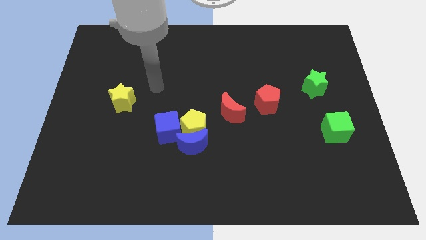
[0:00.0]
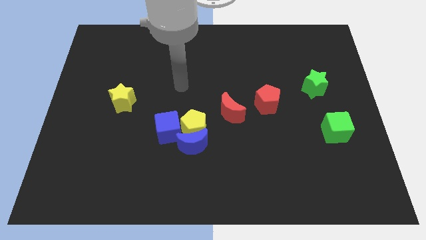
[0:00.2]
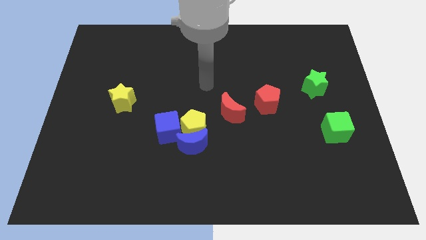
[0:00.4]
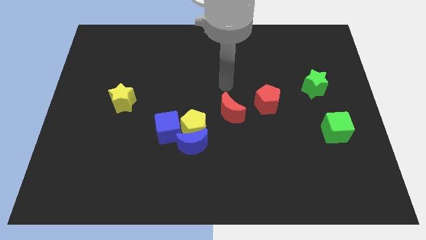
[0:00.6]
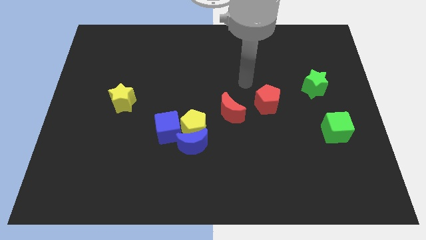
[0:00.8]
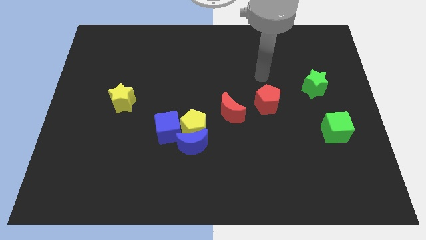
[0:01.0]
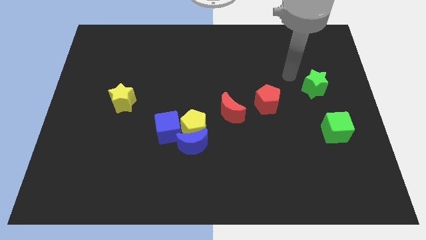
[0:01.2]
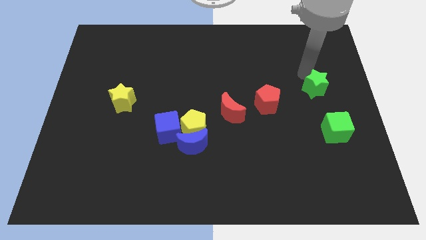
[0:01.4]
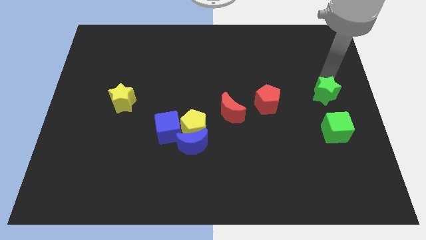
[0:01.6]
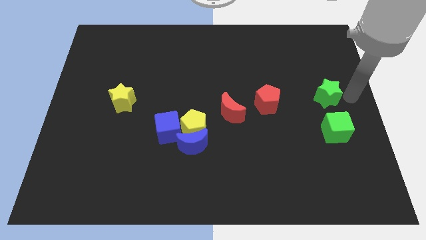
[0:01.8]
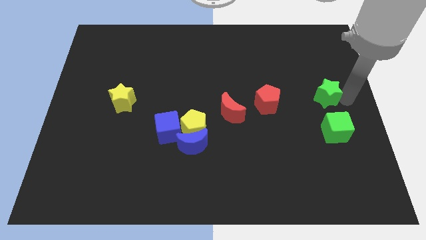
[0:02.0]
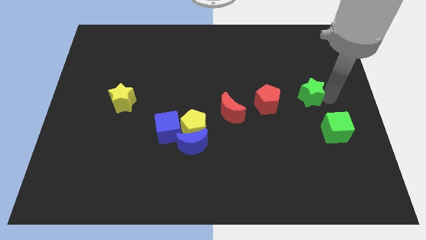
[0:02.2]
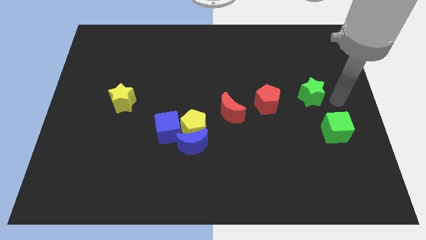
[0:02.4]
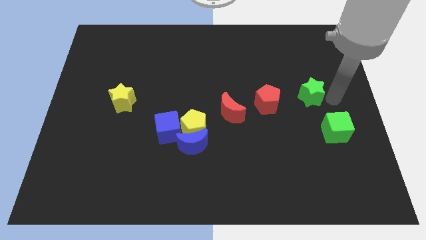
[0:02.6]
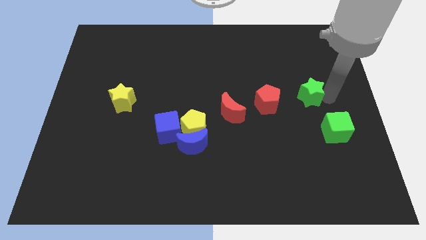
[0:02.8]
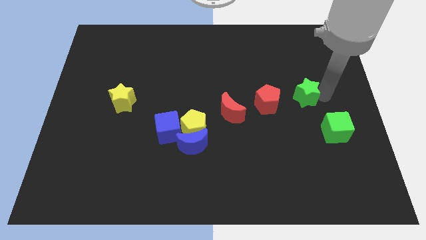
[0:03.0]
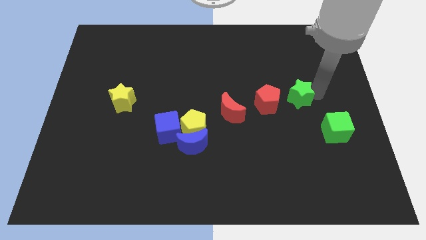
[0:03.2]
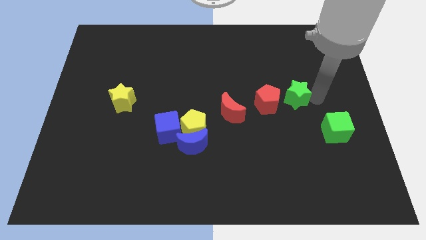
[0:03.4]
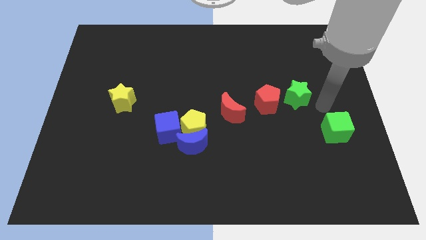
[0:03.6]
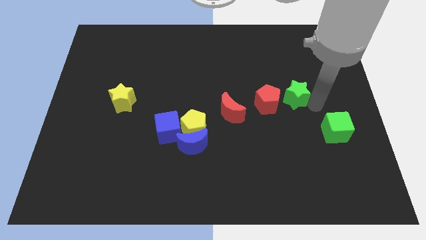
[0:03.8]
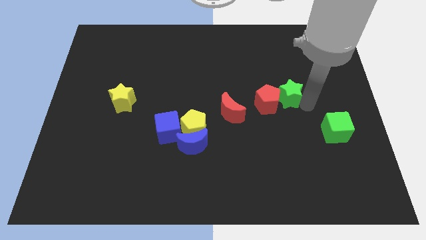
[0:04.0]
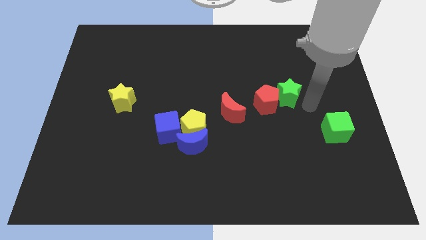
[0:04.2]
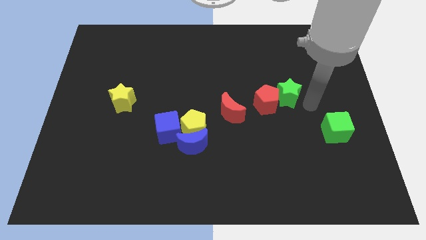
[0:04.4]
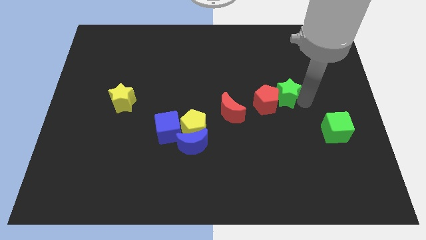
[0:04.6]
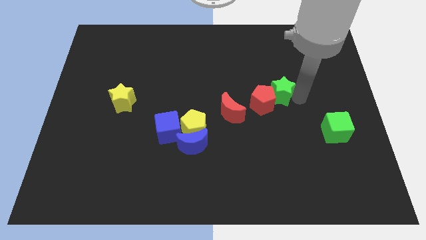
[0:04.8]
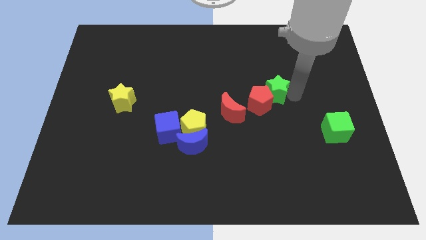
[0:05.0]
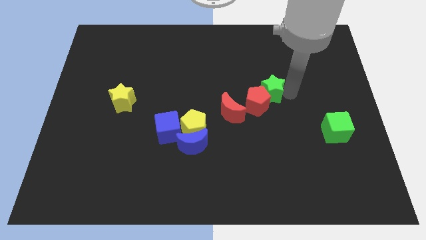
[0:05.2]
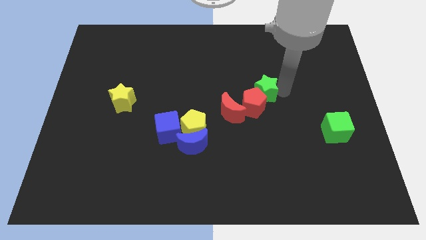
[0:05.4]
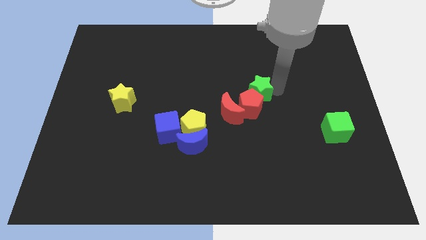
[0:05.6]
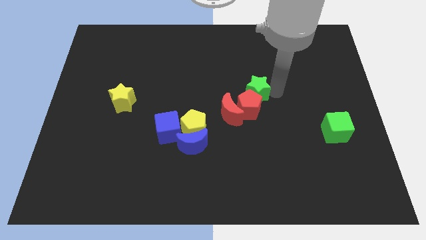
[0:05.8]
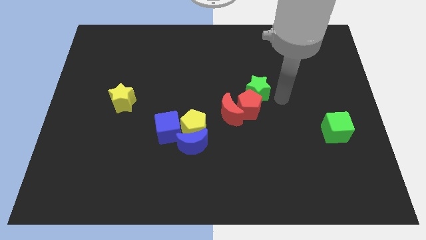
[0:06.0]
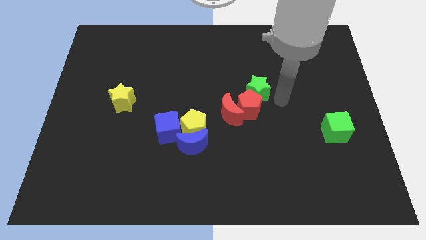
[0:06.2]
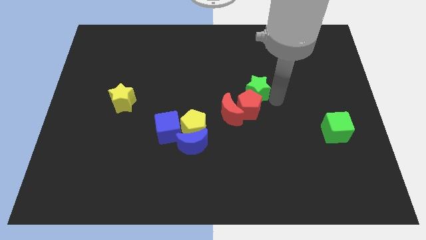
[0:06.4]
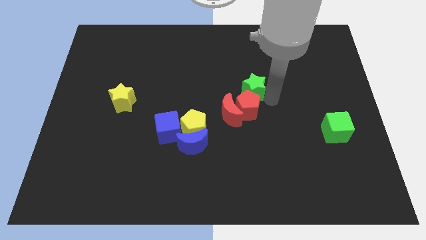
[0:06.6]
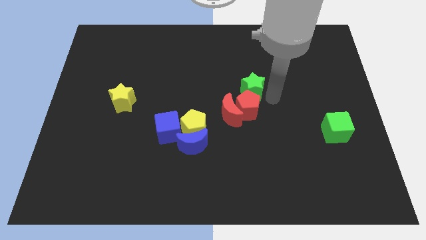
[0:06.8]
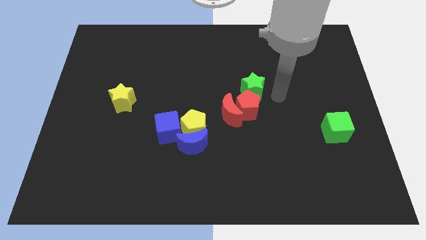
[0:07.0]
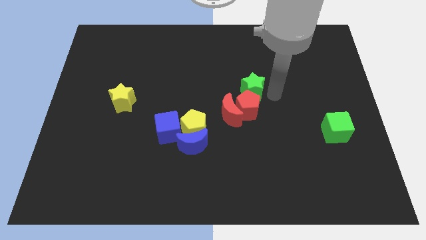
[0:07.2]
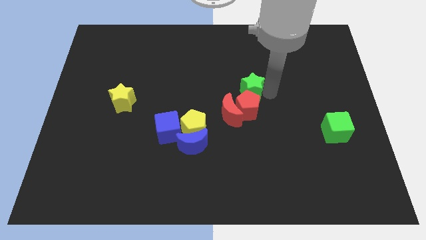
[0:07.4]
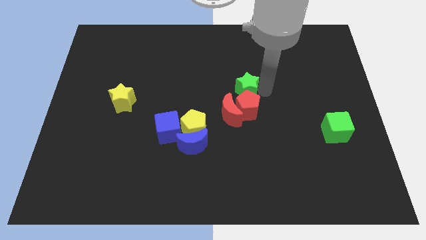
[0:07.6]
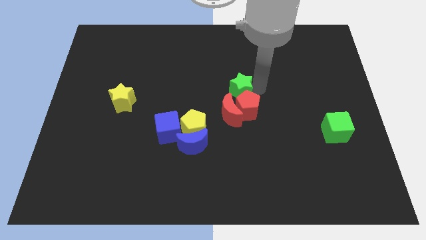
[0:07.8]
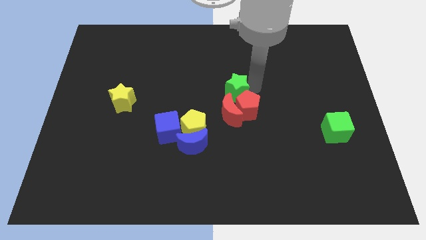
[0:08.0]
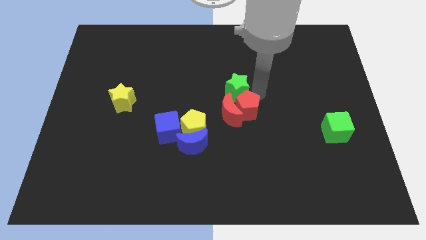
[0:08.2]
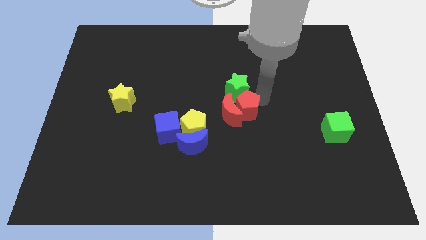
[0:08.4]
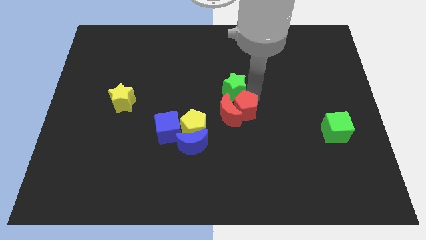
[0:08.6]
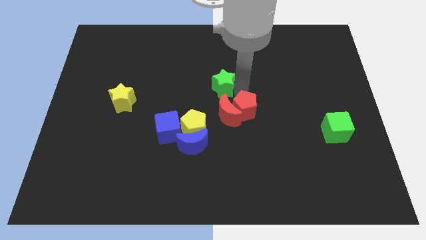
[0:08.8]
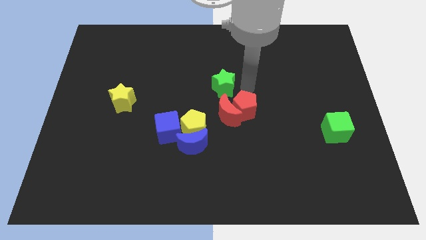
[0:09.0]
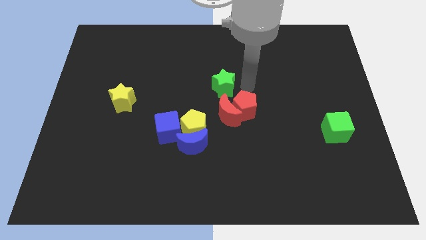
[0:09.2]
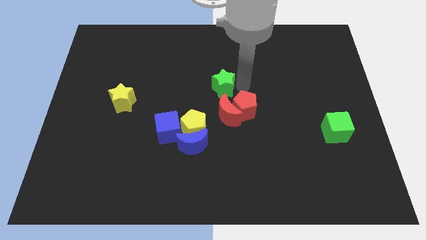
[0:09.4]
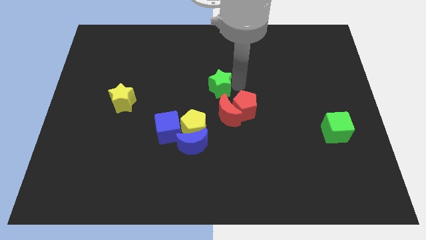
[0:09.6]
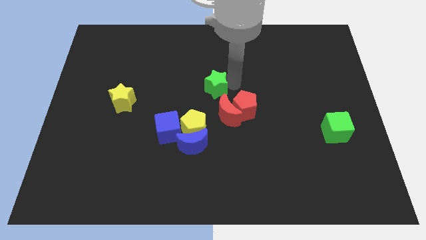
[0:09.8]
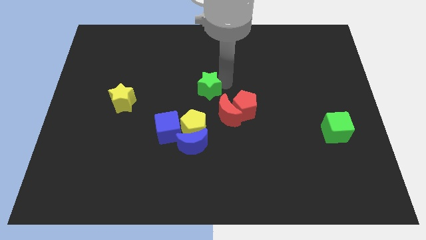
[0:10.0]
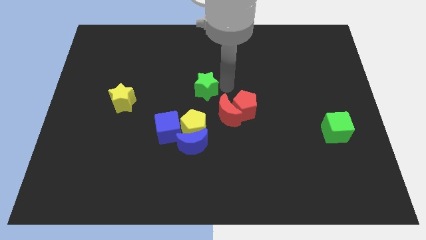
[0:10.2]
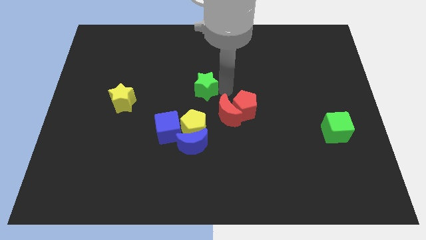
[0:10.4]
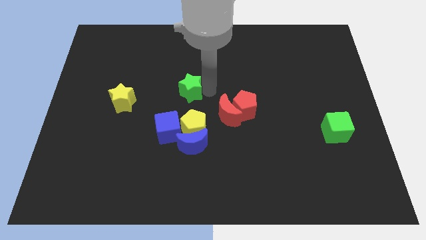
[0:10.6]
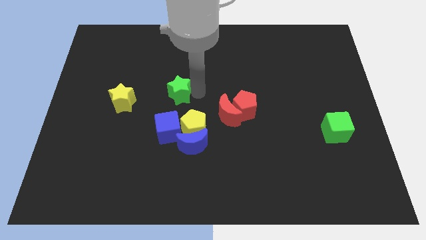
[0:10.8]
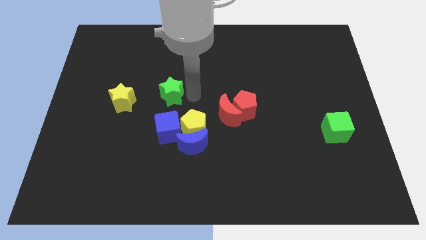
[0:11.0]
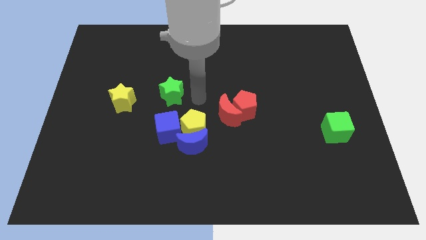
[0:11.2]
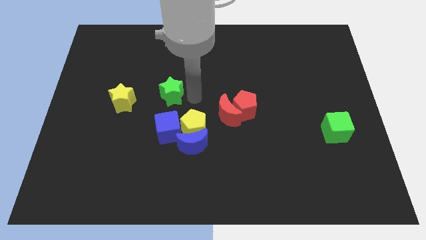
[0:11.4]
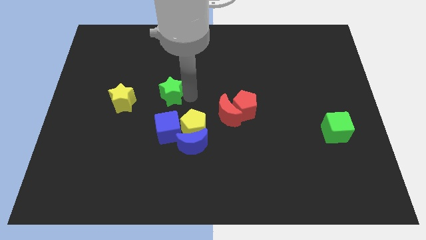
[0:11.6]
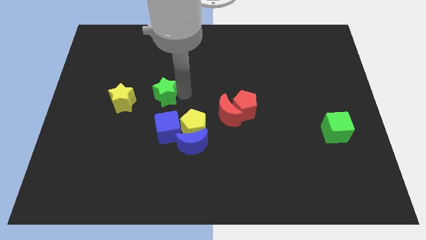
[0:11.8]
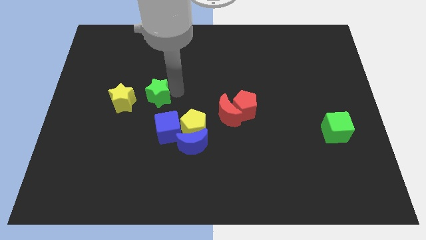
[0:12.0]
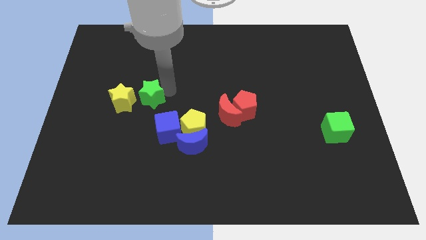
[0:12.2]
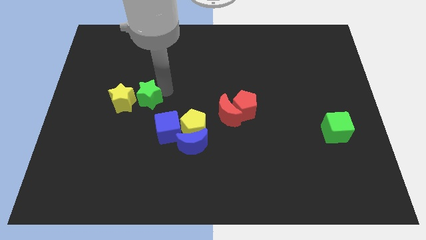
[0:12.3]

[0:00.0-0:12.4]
put the green star to the yellow star
